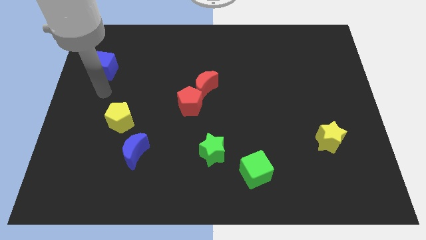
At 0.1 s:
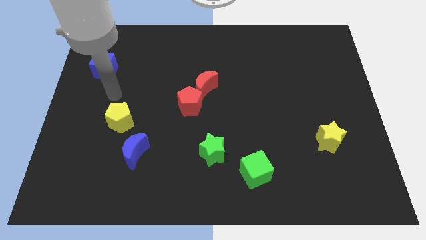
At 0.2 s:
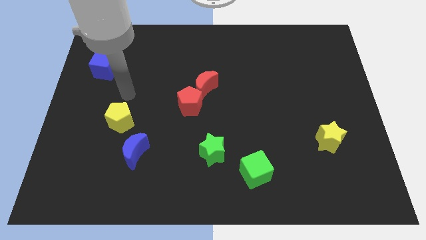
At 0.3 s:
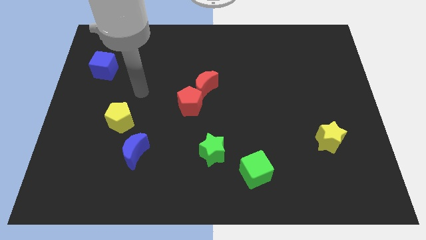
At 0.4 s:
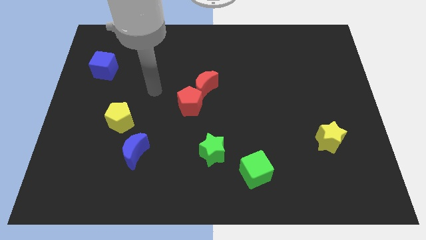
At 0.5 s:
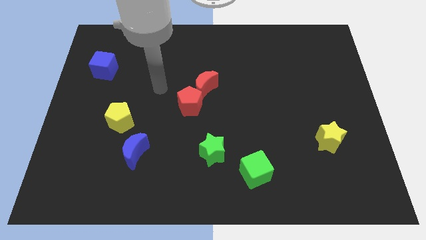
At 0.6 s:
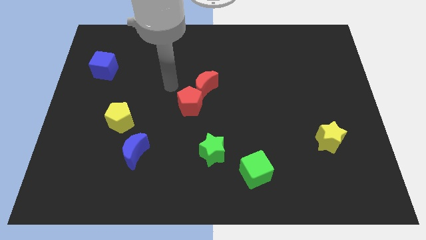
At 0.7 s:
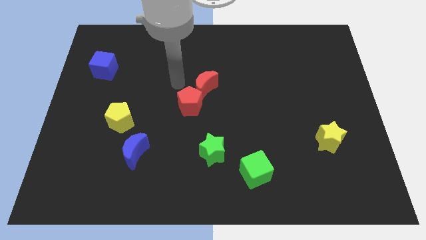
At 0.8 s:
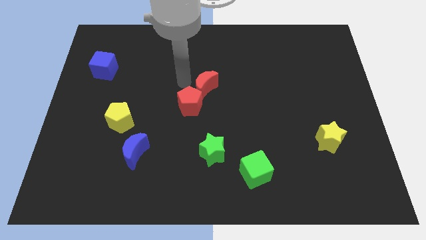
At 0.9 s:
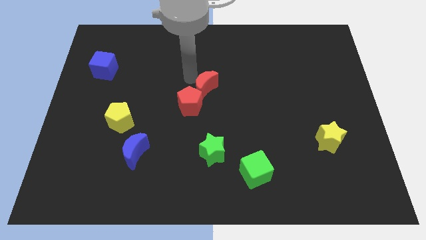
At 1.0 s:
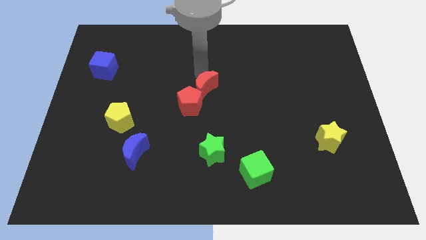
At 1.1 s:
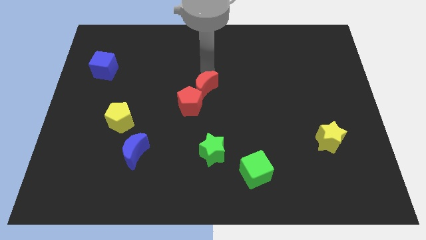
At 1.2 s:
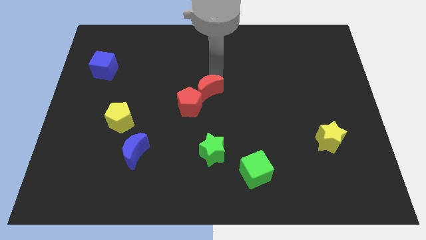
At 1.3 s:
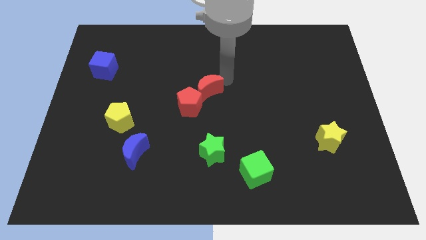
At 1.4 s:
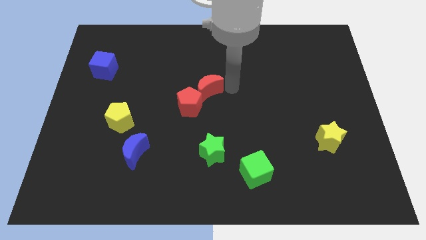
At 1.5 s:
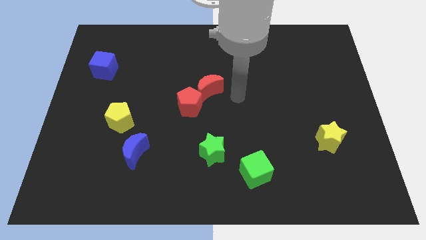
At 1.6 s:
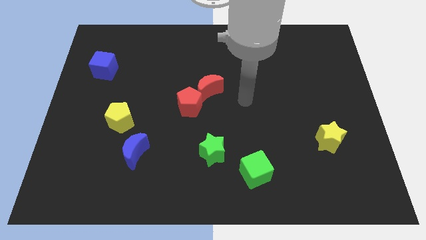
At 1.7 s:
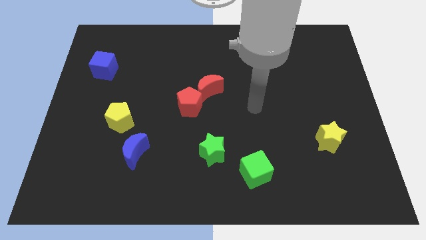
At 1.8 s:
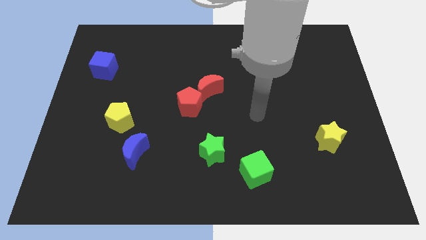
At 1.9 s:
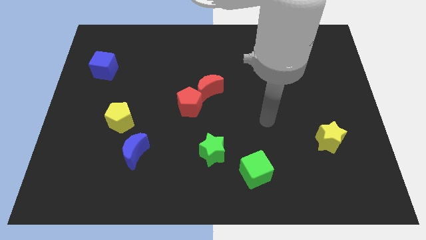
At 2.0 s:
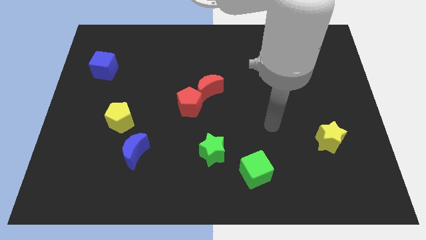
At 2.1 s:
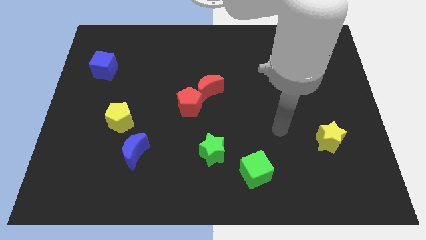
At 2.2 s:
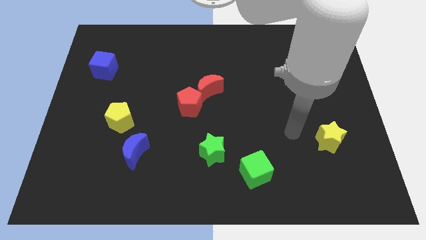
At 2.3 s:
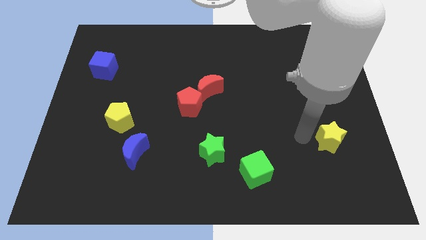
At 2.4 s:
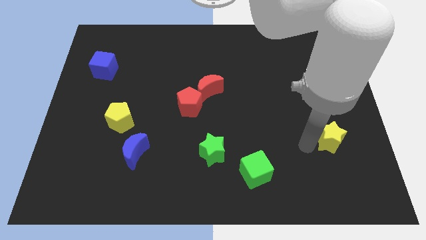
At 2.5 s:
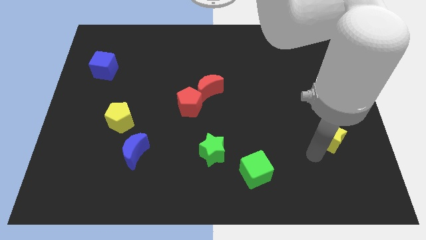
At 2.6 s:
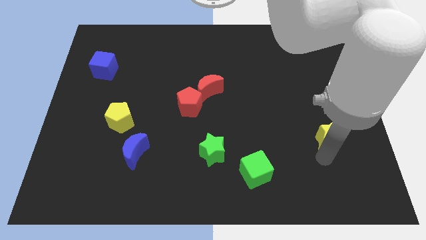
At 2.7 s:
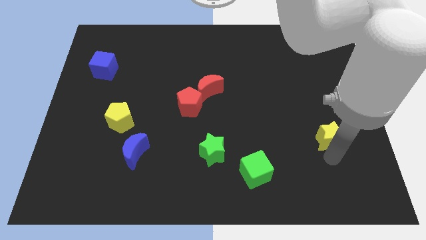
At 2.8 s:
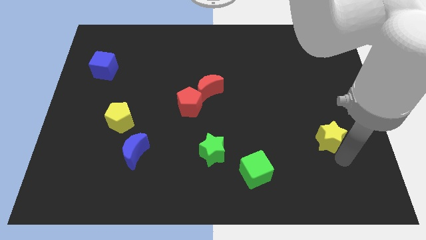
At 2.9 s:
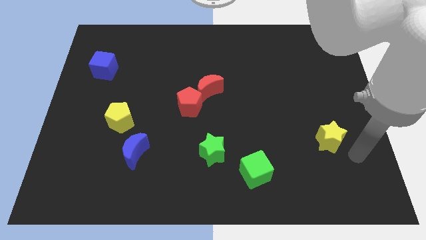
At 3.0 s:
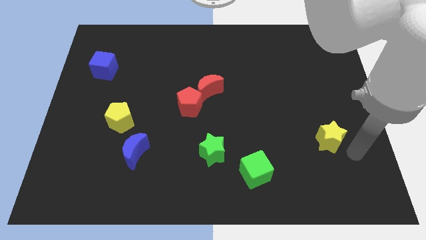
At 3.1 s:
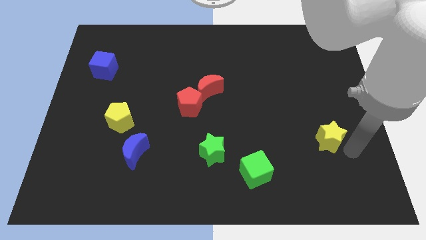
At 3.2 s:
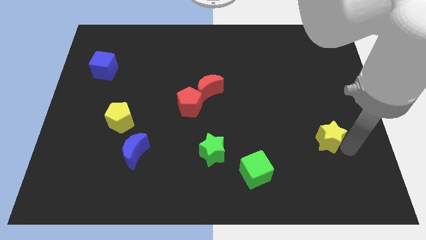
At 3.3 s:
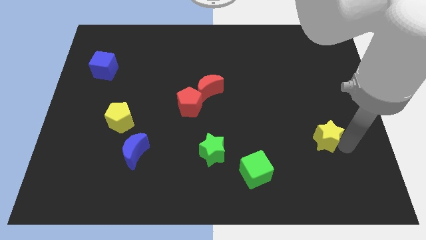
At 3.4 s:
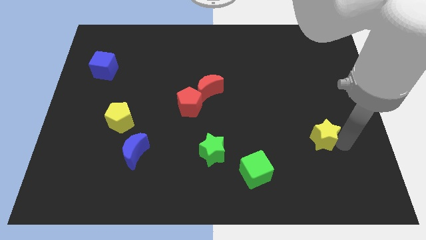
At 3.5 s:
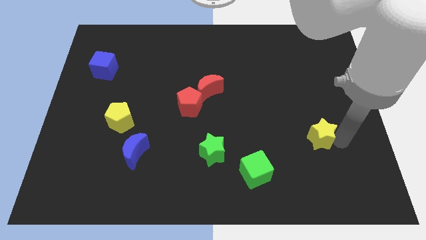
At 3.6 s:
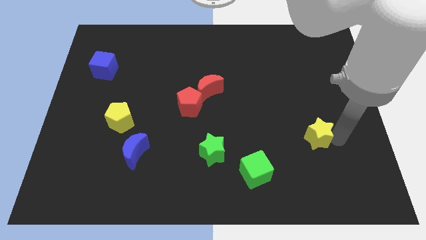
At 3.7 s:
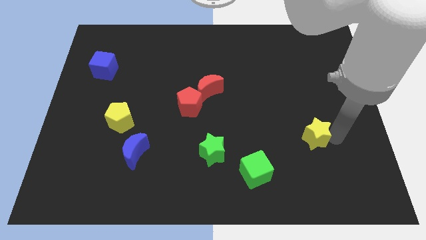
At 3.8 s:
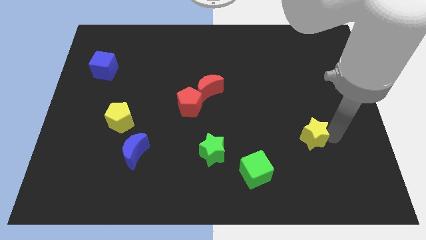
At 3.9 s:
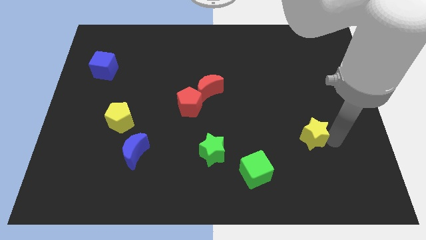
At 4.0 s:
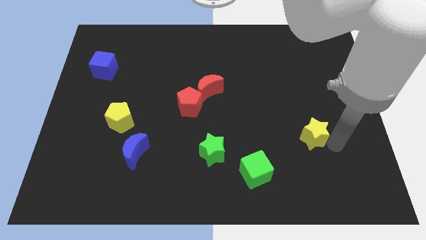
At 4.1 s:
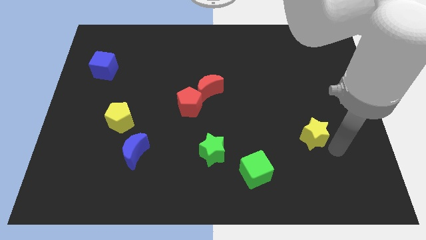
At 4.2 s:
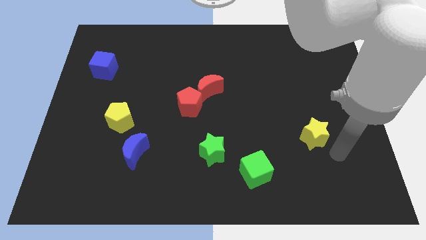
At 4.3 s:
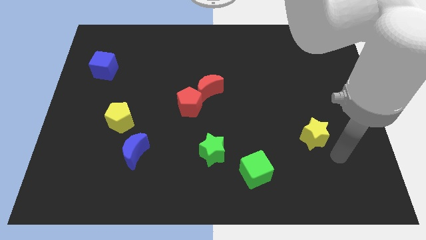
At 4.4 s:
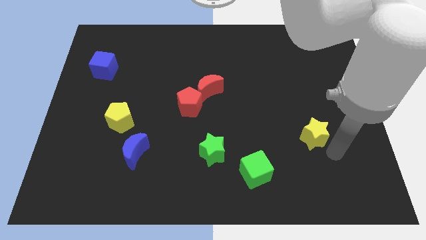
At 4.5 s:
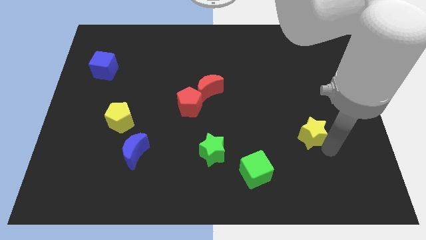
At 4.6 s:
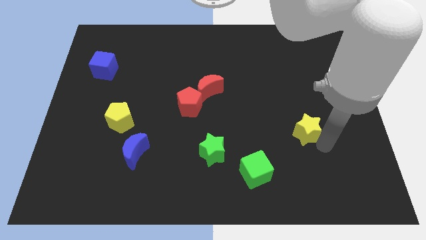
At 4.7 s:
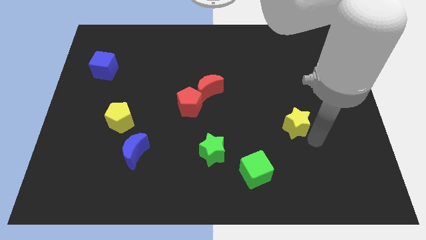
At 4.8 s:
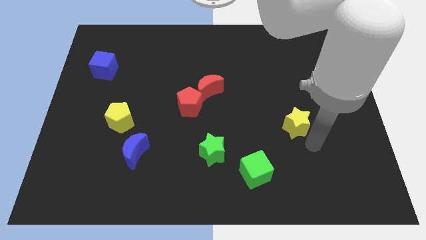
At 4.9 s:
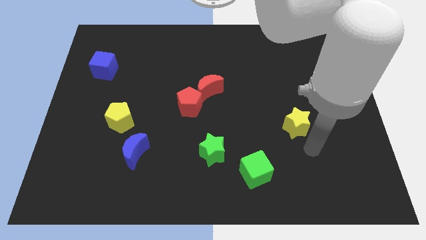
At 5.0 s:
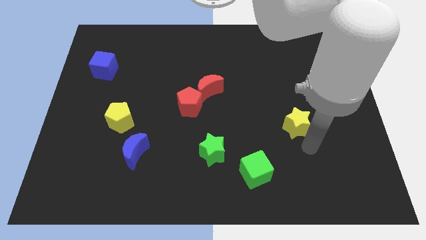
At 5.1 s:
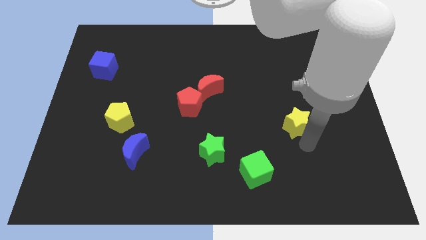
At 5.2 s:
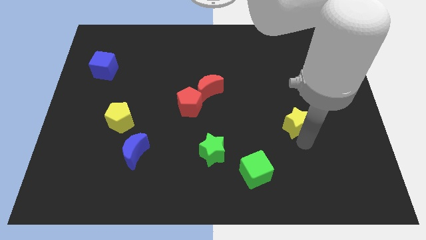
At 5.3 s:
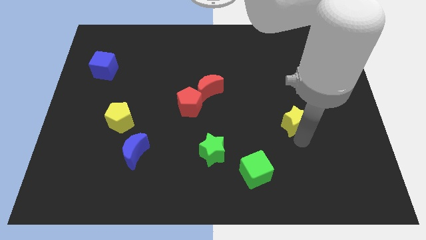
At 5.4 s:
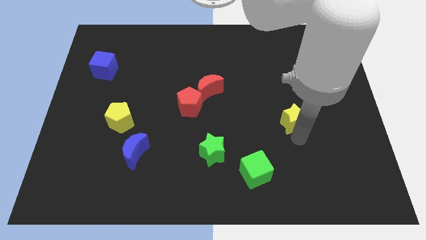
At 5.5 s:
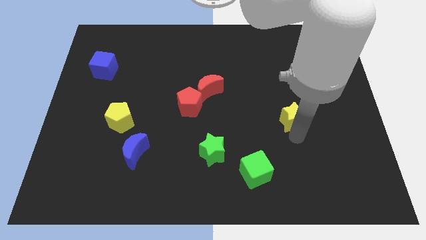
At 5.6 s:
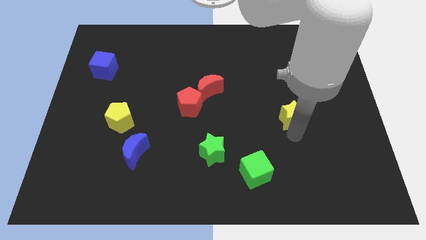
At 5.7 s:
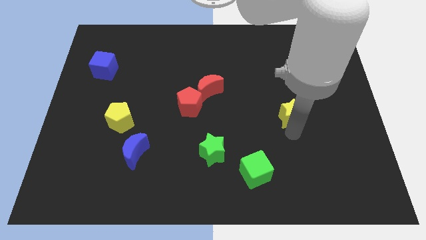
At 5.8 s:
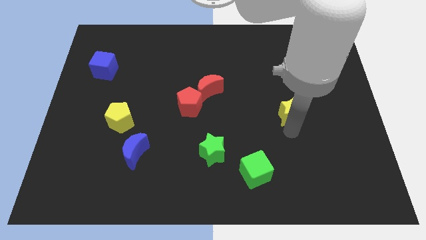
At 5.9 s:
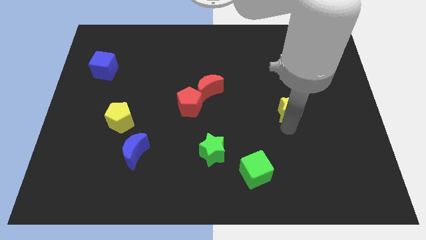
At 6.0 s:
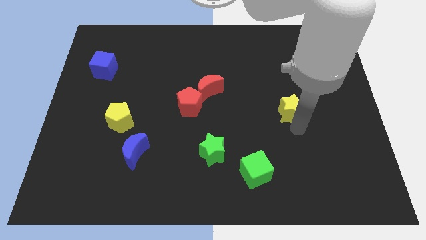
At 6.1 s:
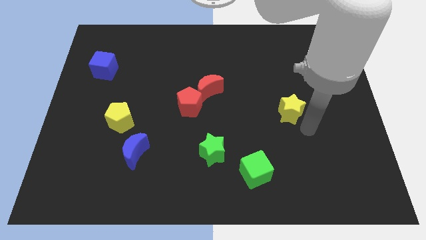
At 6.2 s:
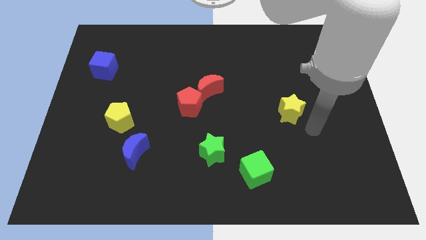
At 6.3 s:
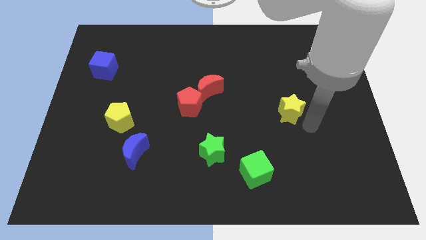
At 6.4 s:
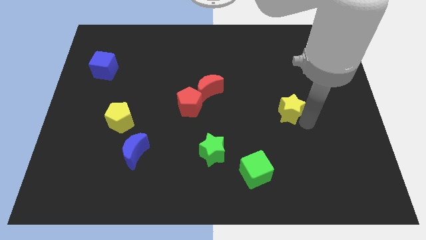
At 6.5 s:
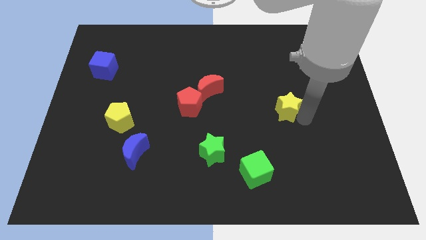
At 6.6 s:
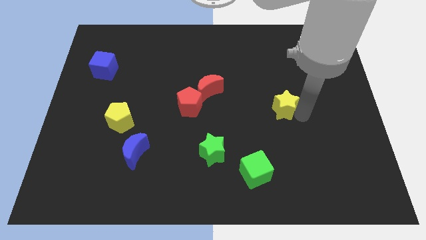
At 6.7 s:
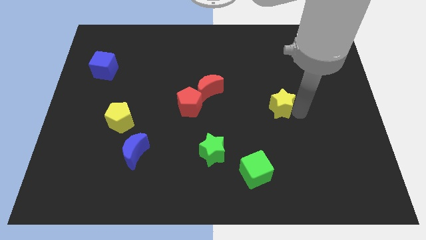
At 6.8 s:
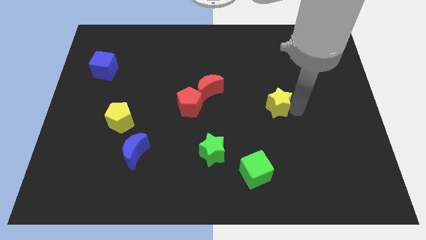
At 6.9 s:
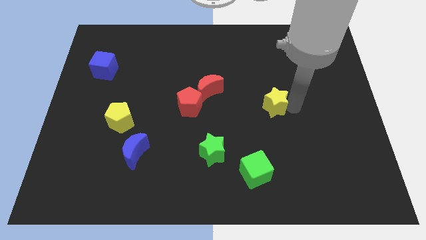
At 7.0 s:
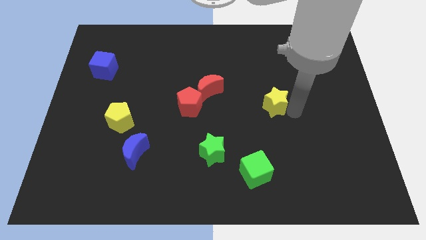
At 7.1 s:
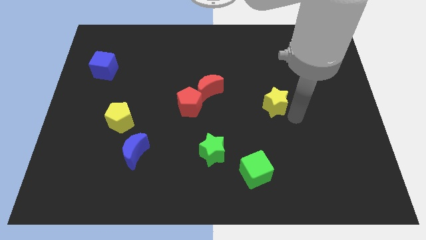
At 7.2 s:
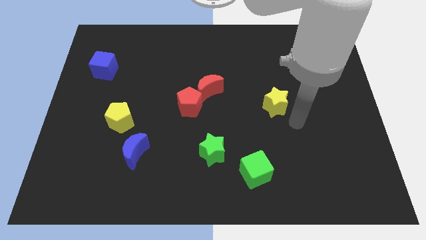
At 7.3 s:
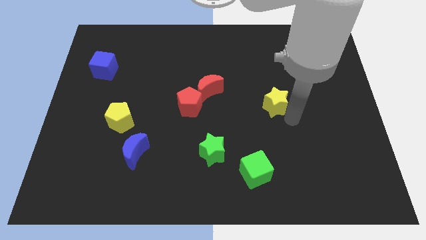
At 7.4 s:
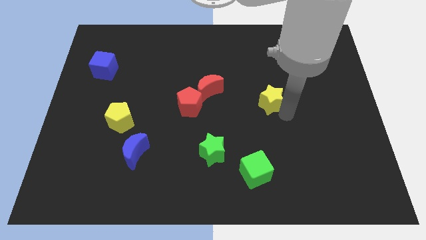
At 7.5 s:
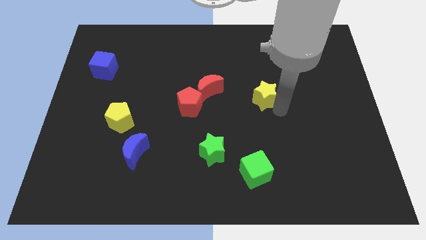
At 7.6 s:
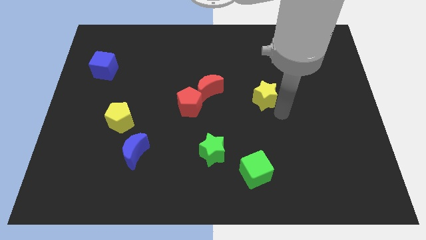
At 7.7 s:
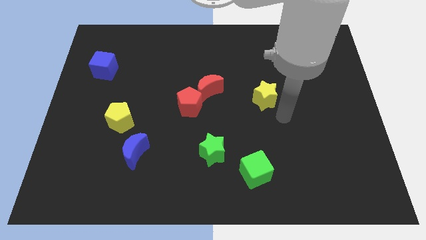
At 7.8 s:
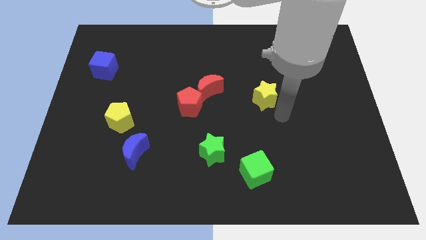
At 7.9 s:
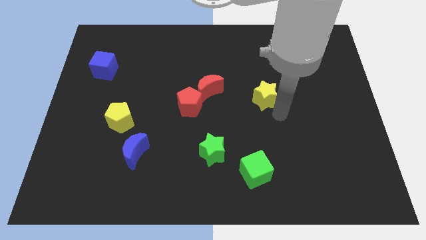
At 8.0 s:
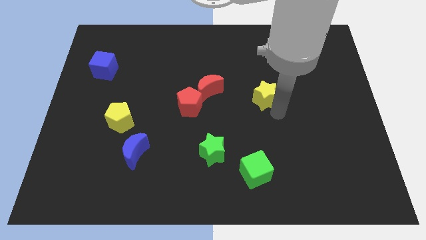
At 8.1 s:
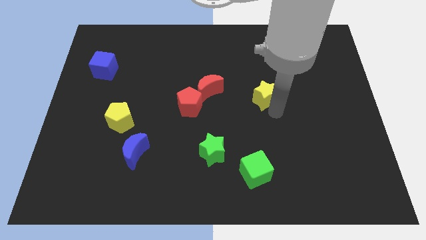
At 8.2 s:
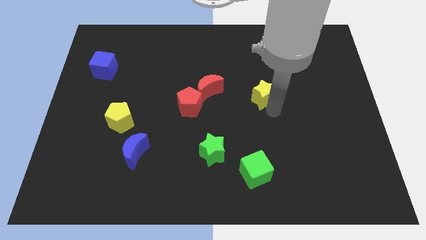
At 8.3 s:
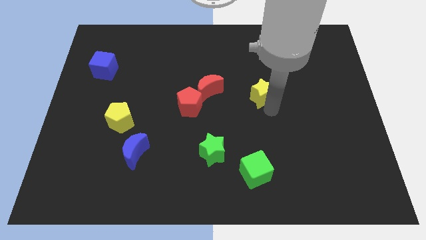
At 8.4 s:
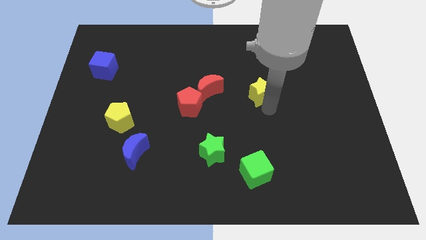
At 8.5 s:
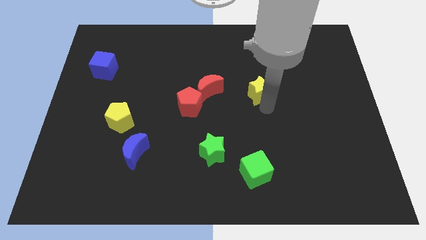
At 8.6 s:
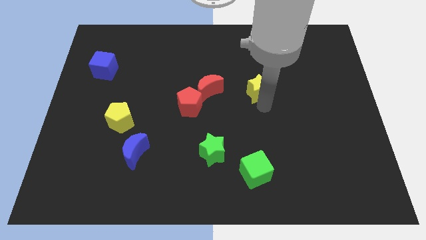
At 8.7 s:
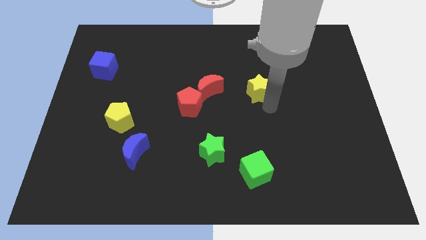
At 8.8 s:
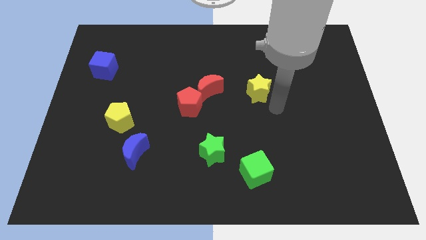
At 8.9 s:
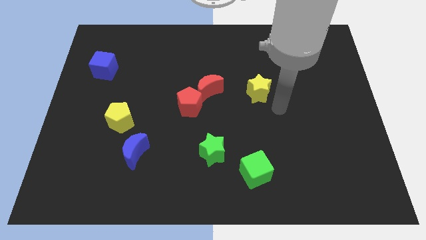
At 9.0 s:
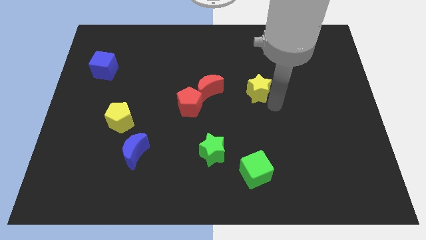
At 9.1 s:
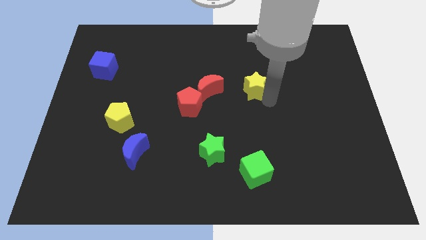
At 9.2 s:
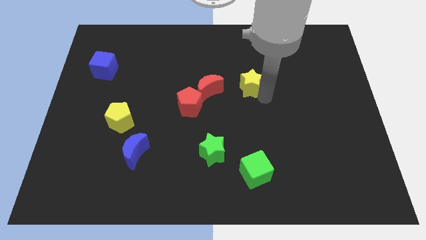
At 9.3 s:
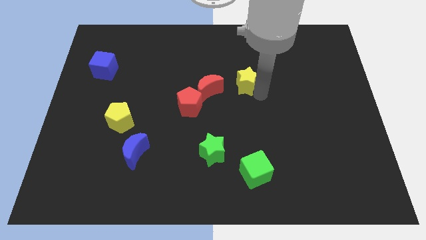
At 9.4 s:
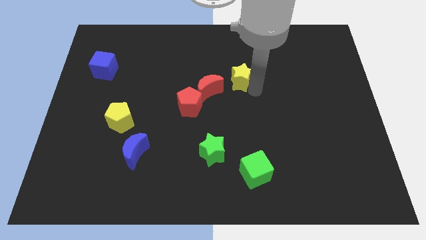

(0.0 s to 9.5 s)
push the yellow star to the top right side of the red moon
